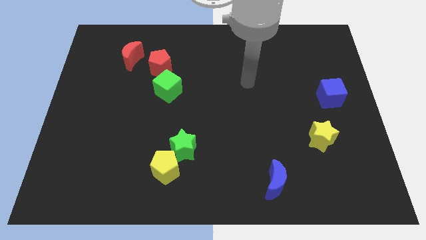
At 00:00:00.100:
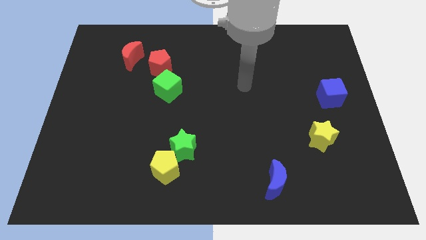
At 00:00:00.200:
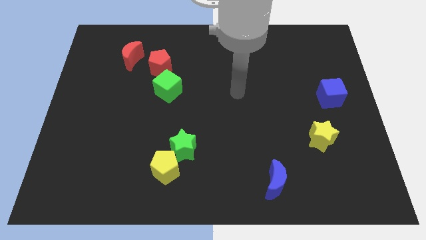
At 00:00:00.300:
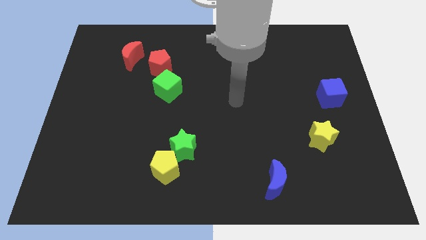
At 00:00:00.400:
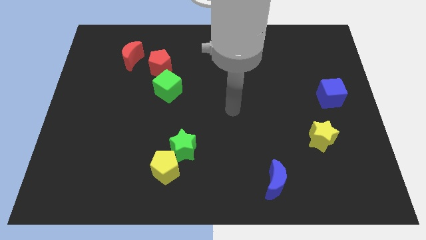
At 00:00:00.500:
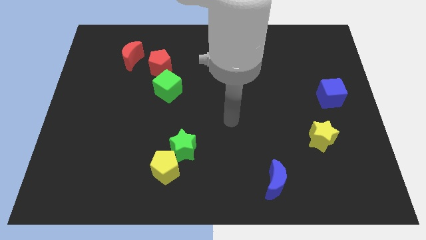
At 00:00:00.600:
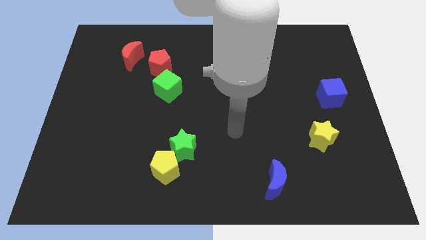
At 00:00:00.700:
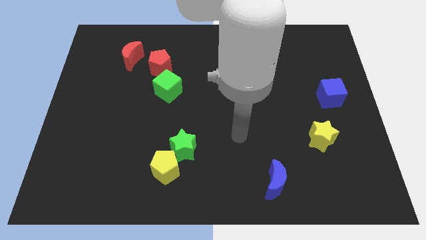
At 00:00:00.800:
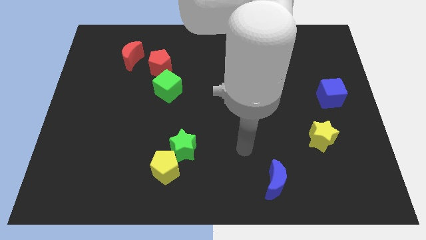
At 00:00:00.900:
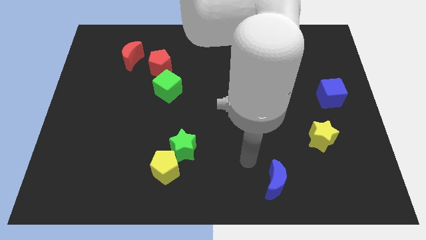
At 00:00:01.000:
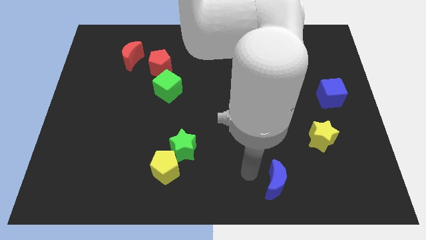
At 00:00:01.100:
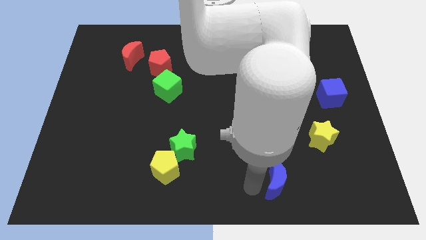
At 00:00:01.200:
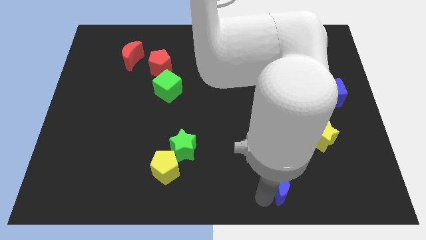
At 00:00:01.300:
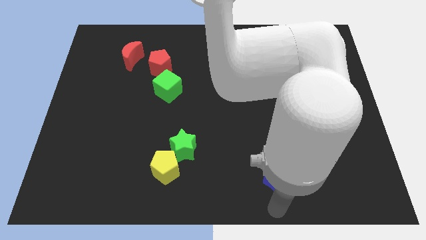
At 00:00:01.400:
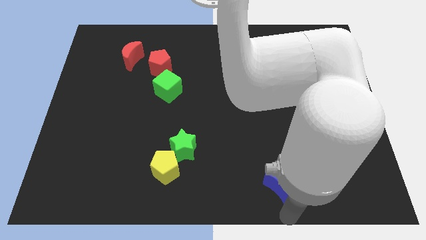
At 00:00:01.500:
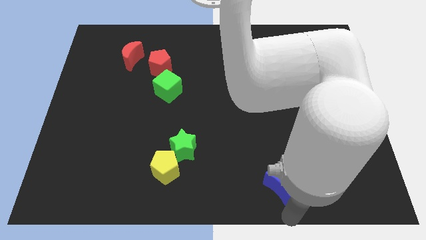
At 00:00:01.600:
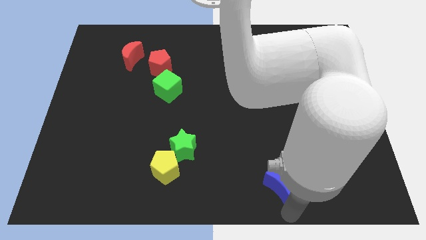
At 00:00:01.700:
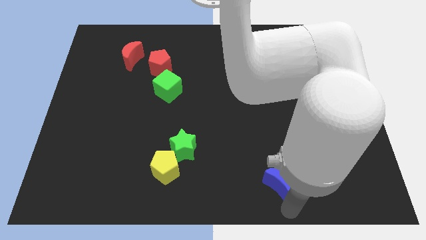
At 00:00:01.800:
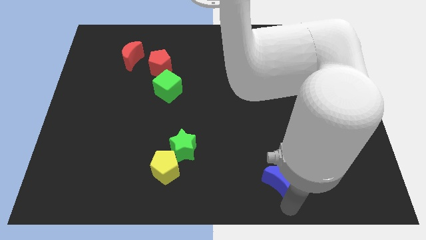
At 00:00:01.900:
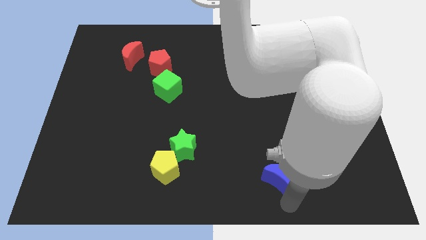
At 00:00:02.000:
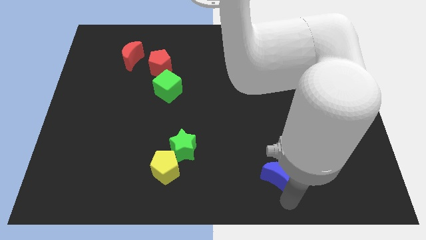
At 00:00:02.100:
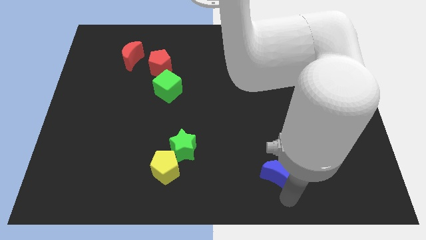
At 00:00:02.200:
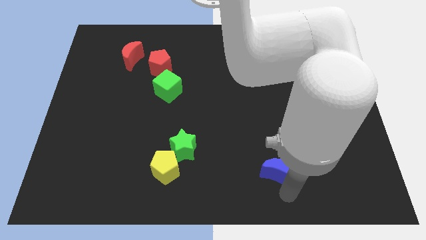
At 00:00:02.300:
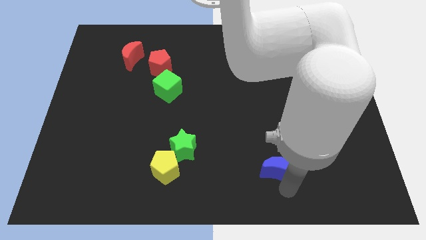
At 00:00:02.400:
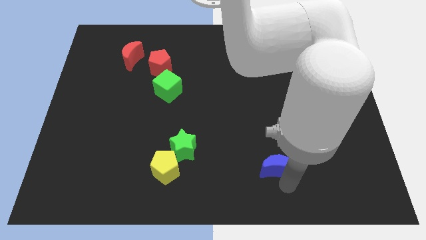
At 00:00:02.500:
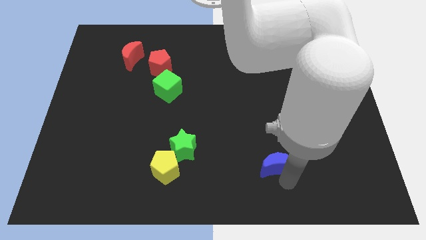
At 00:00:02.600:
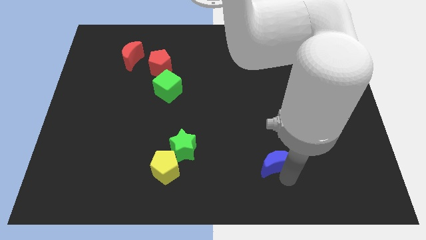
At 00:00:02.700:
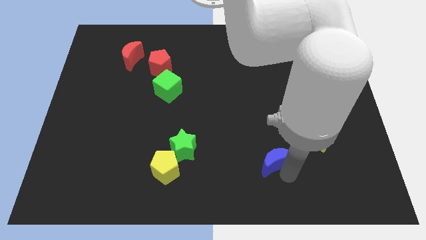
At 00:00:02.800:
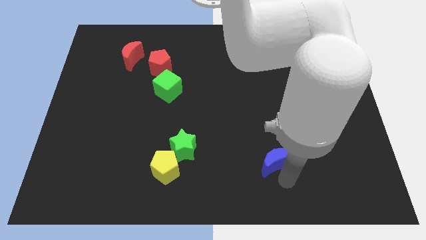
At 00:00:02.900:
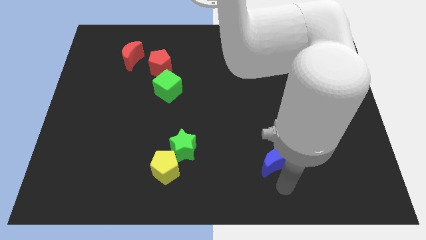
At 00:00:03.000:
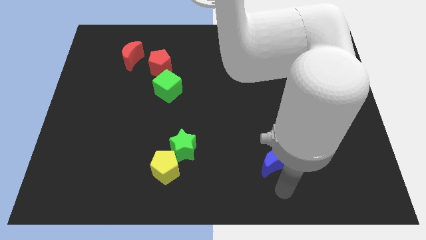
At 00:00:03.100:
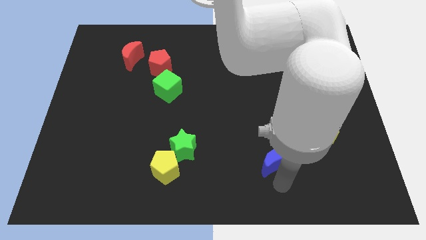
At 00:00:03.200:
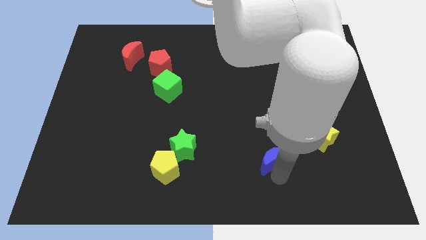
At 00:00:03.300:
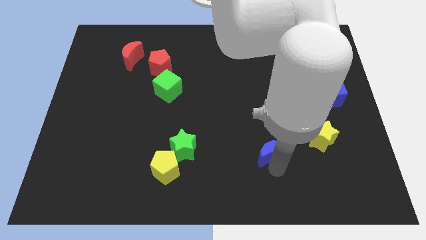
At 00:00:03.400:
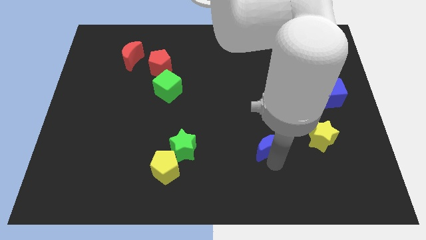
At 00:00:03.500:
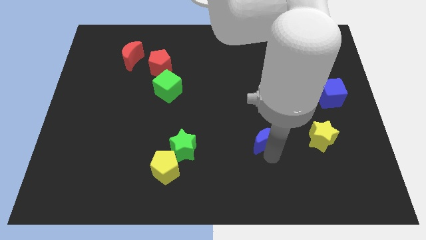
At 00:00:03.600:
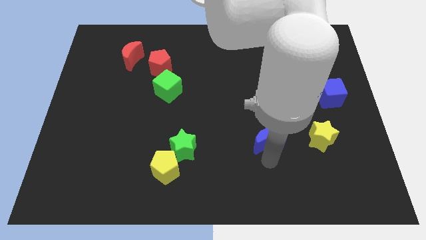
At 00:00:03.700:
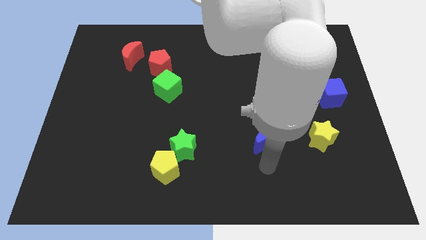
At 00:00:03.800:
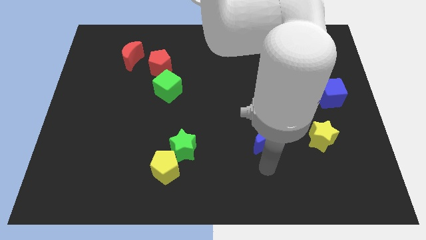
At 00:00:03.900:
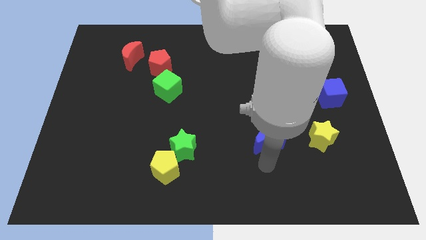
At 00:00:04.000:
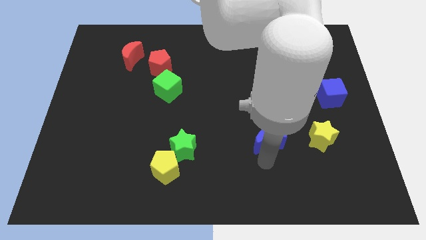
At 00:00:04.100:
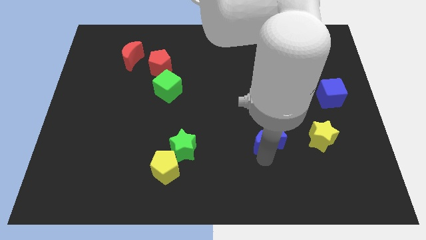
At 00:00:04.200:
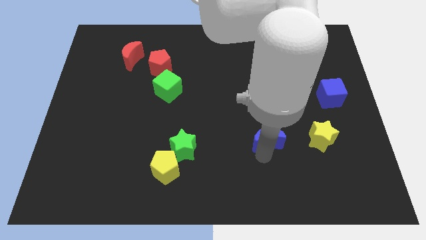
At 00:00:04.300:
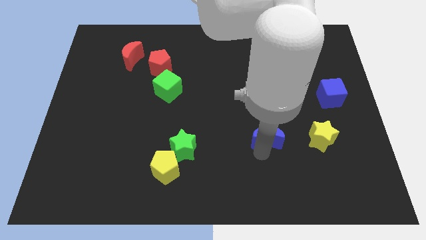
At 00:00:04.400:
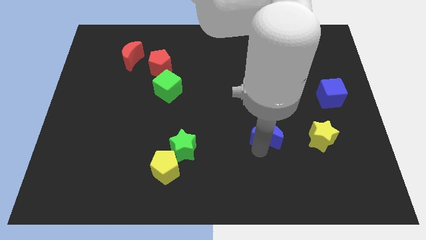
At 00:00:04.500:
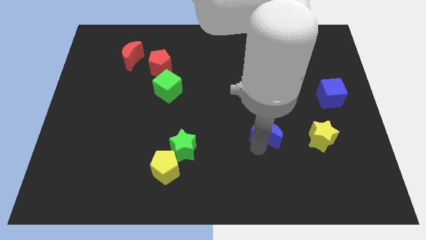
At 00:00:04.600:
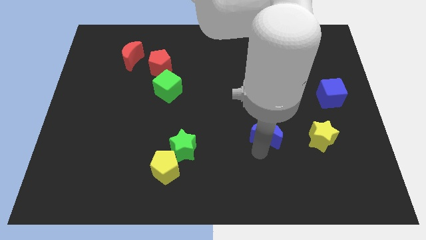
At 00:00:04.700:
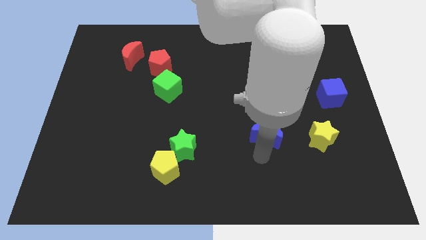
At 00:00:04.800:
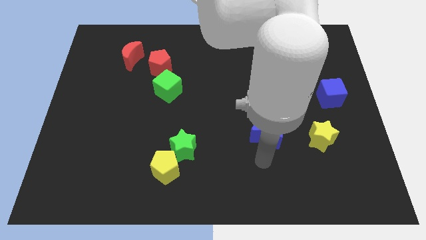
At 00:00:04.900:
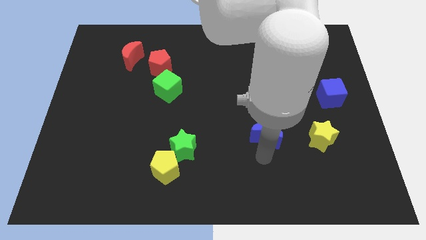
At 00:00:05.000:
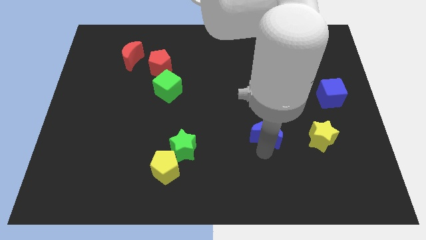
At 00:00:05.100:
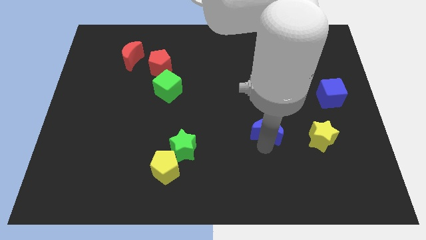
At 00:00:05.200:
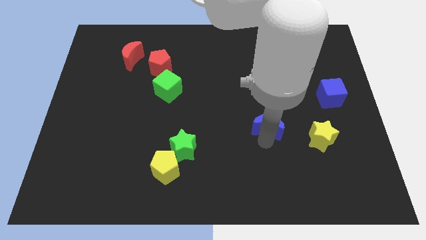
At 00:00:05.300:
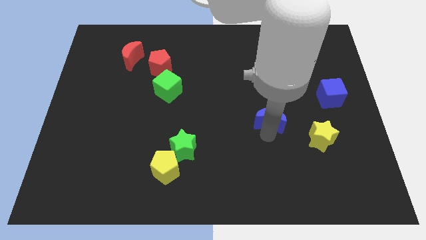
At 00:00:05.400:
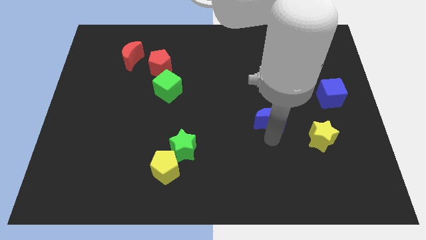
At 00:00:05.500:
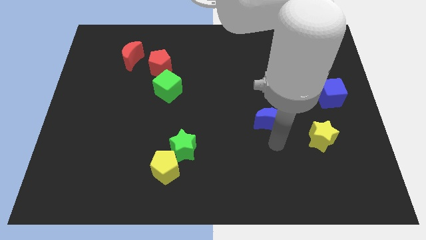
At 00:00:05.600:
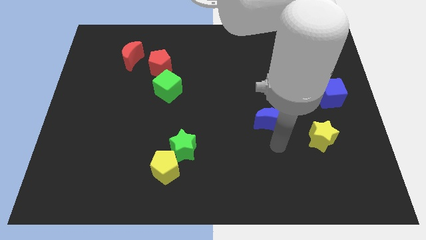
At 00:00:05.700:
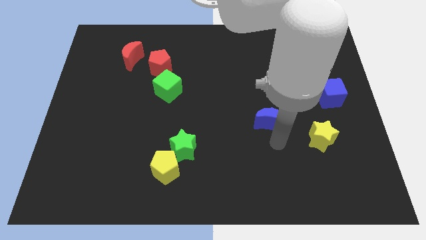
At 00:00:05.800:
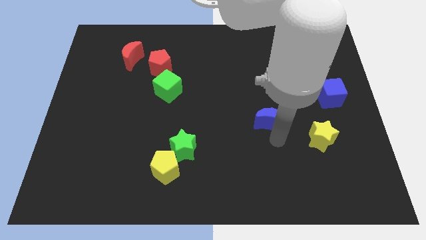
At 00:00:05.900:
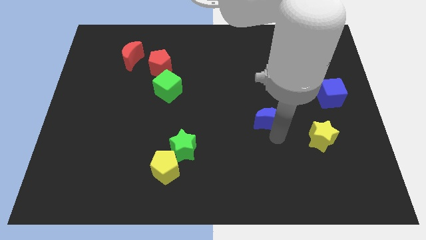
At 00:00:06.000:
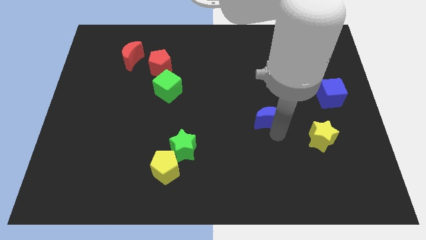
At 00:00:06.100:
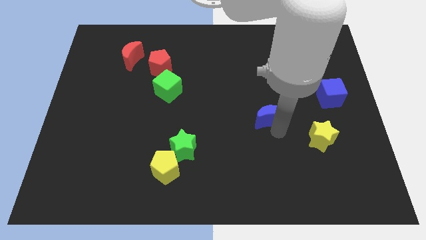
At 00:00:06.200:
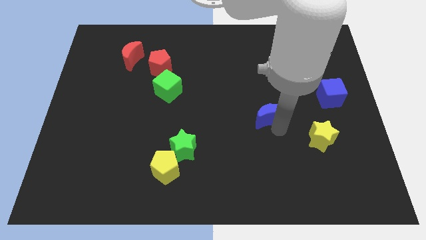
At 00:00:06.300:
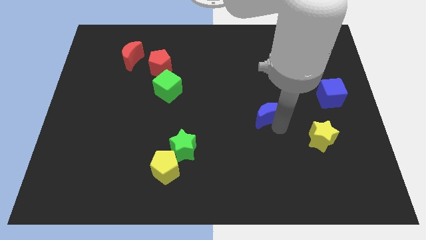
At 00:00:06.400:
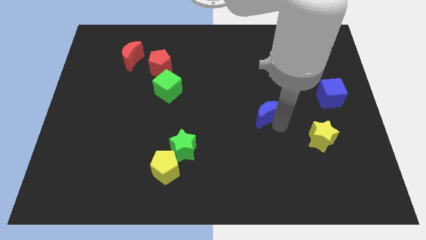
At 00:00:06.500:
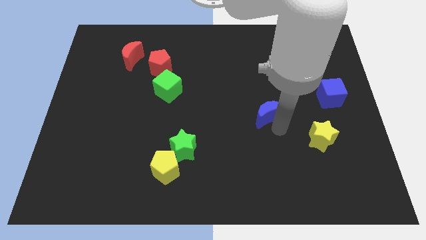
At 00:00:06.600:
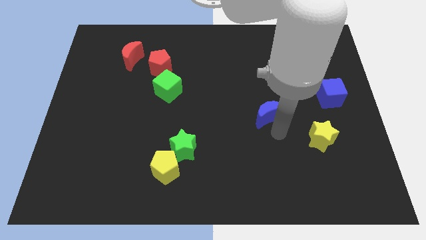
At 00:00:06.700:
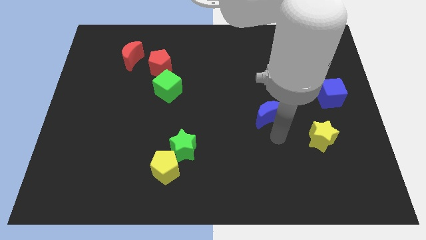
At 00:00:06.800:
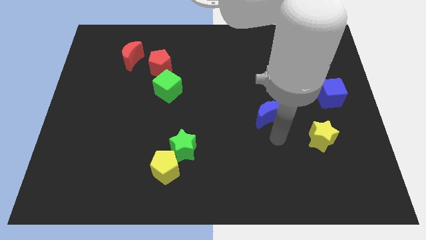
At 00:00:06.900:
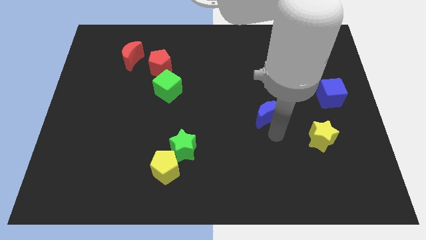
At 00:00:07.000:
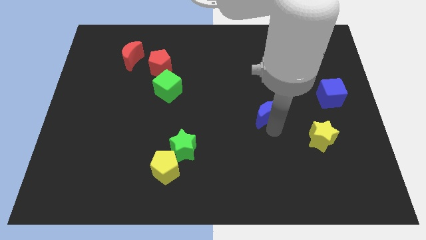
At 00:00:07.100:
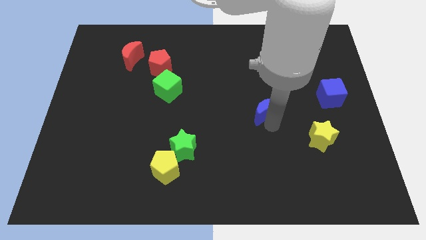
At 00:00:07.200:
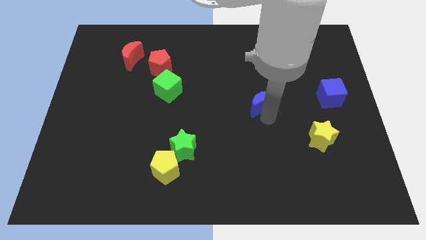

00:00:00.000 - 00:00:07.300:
slide the blue moon upwards

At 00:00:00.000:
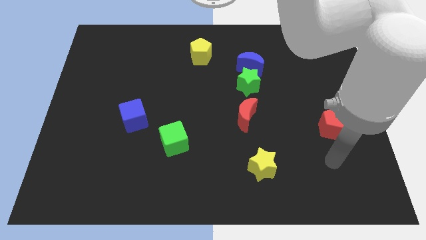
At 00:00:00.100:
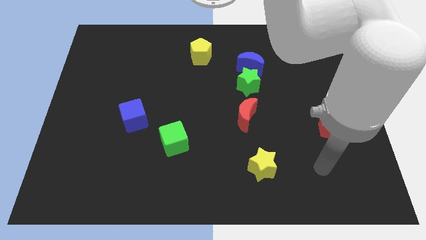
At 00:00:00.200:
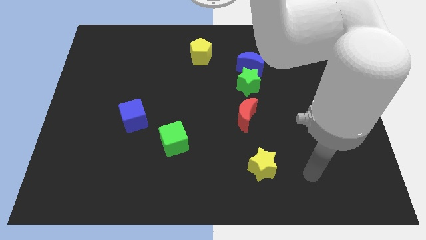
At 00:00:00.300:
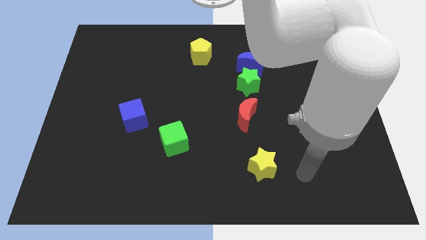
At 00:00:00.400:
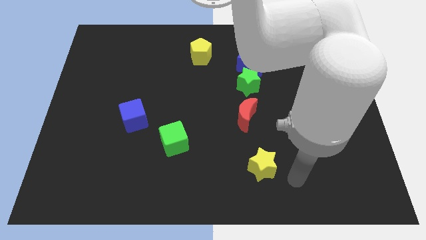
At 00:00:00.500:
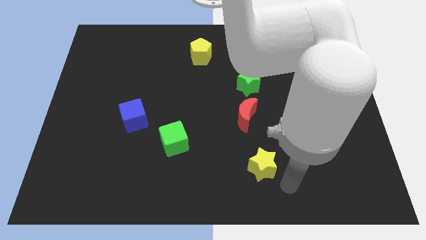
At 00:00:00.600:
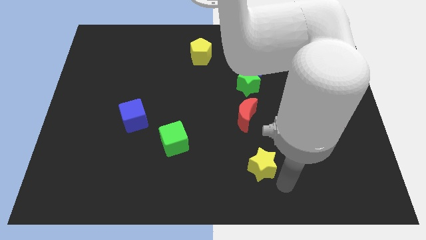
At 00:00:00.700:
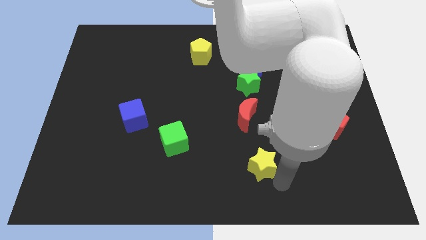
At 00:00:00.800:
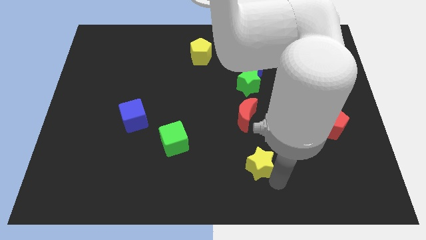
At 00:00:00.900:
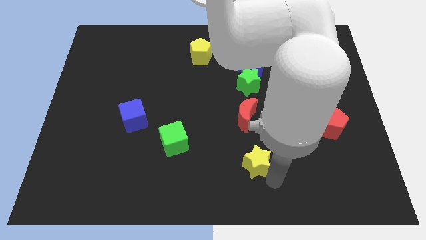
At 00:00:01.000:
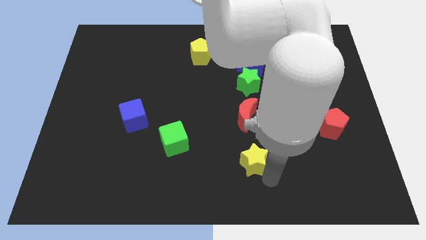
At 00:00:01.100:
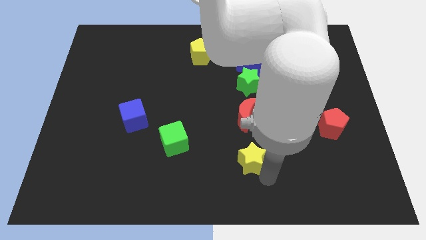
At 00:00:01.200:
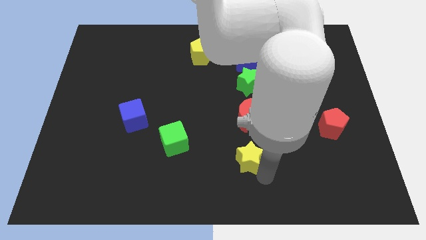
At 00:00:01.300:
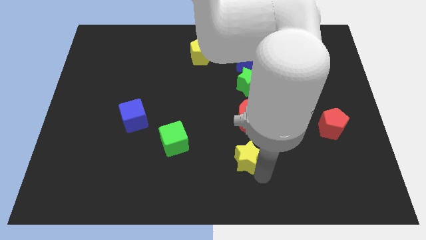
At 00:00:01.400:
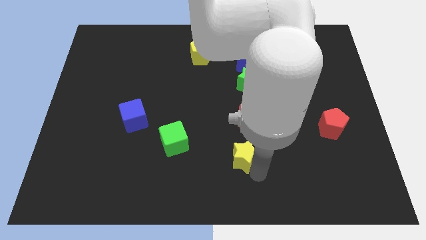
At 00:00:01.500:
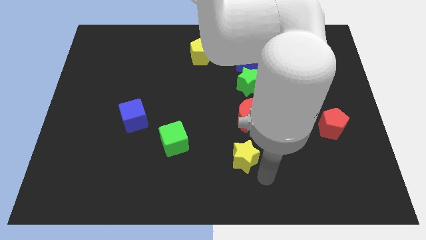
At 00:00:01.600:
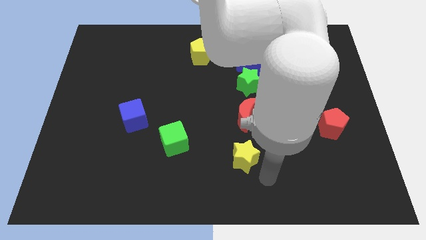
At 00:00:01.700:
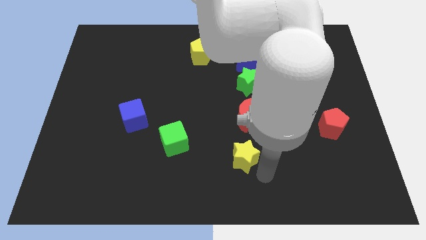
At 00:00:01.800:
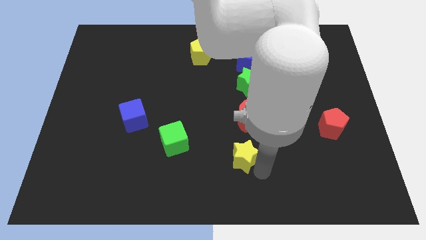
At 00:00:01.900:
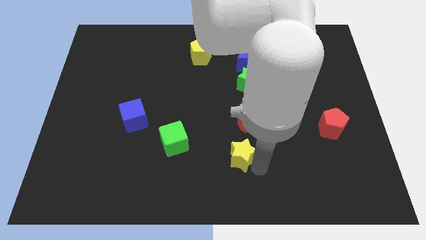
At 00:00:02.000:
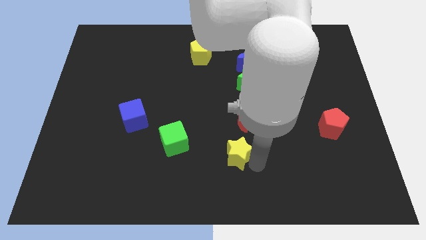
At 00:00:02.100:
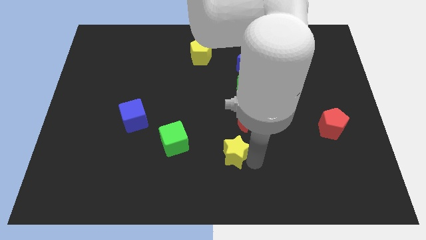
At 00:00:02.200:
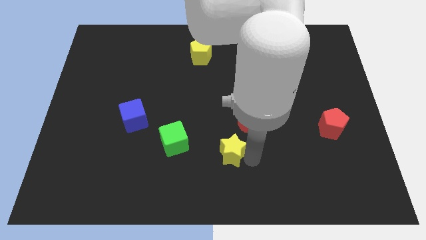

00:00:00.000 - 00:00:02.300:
slightly slide the yellow star upwards and then to the left
